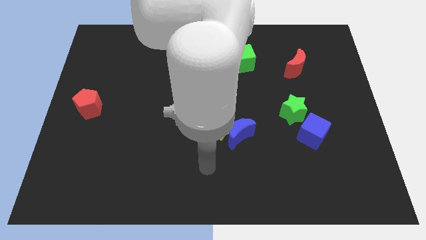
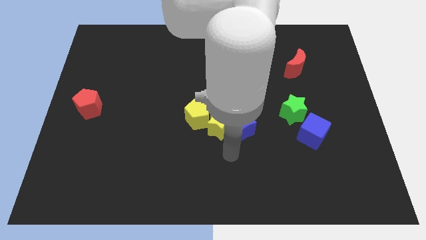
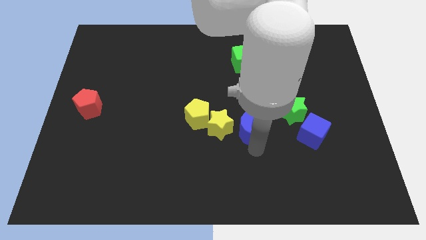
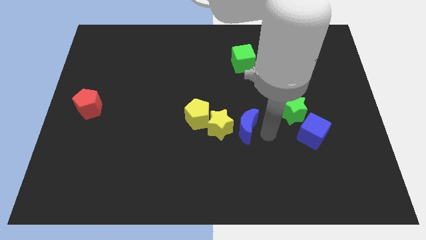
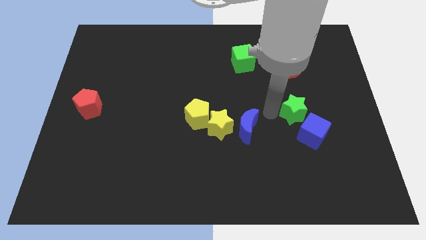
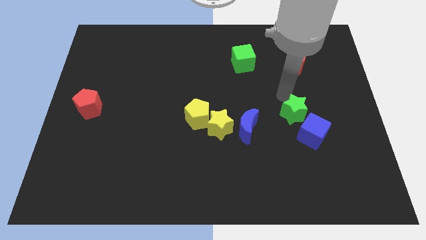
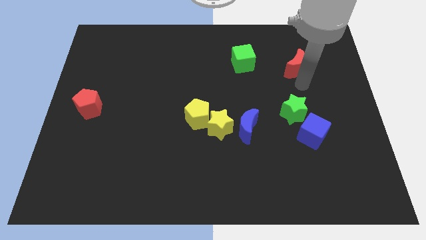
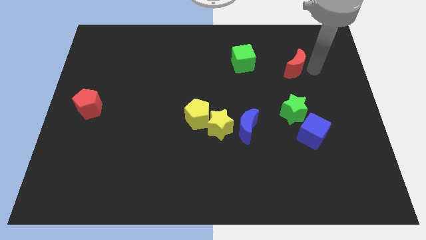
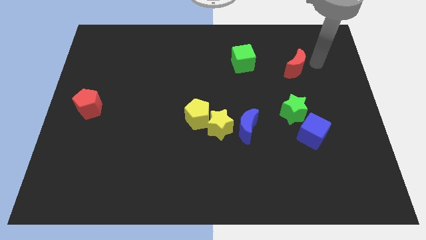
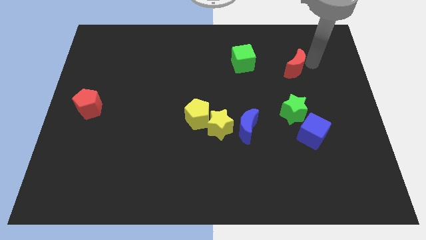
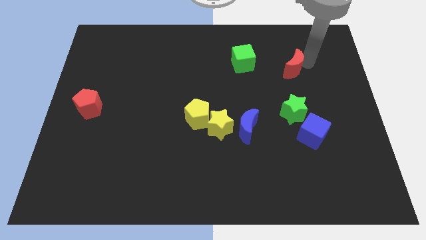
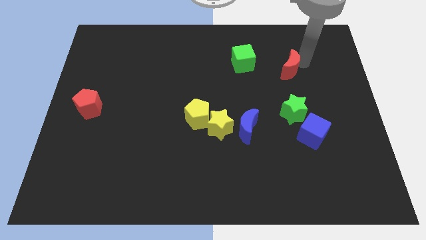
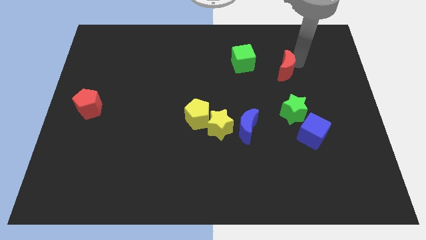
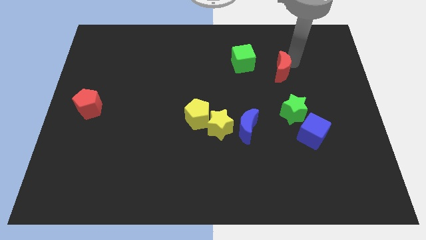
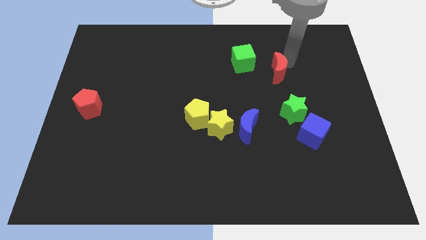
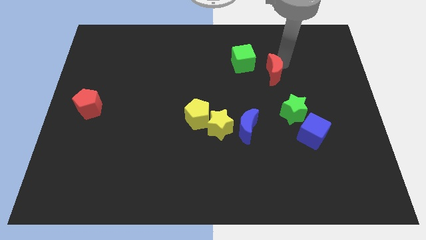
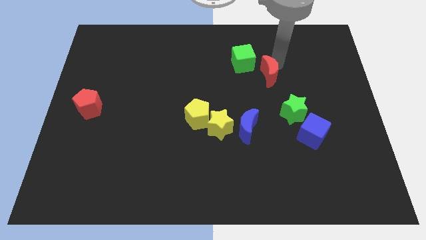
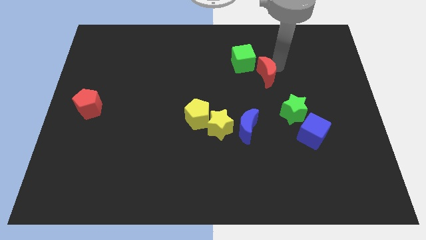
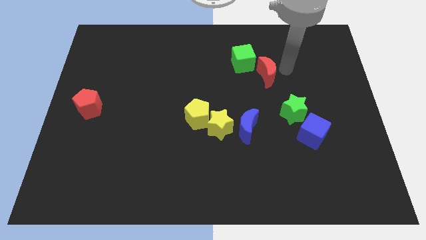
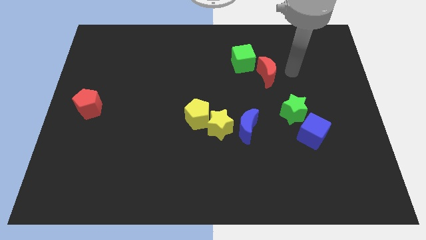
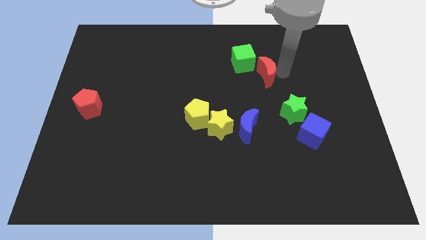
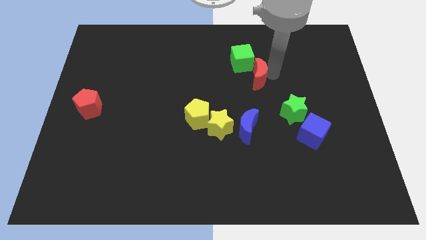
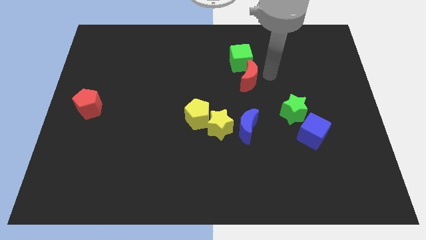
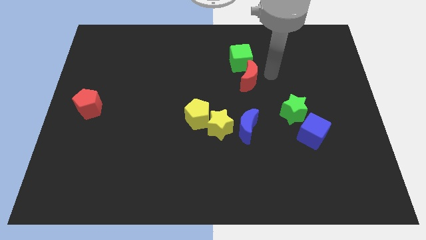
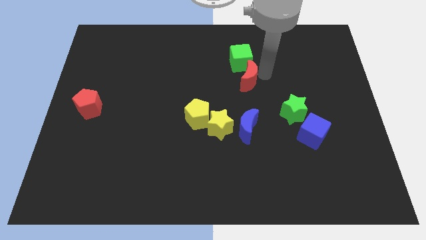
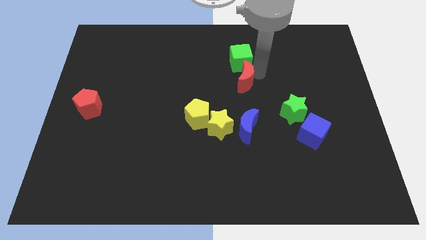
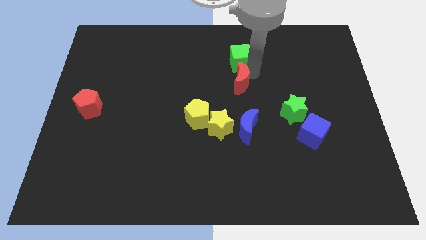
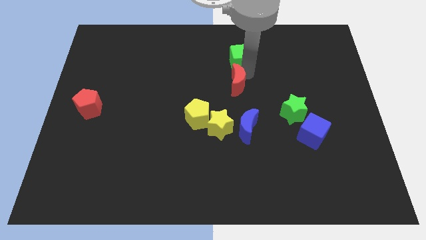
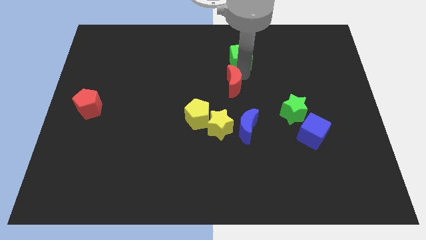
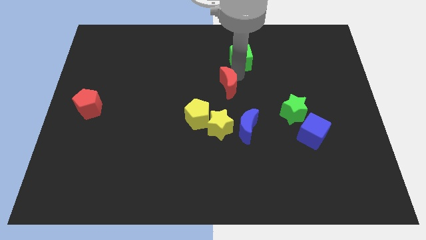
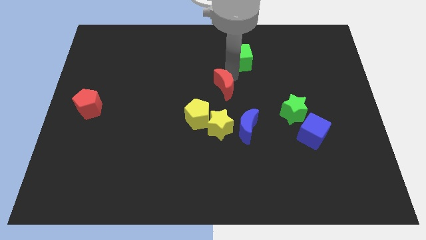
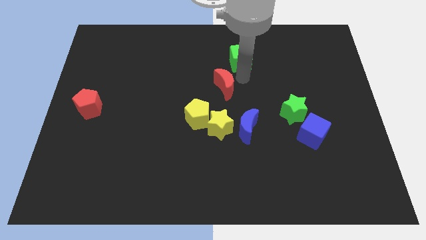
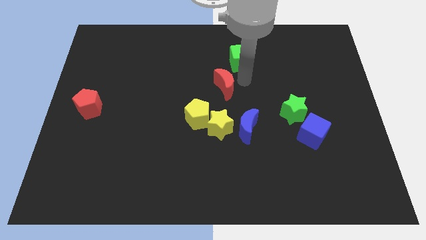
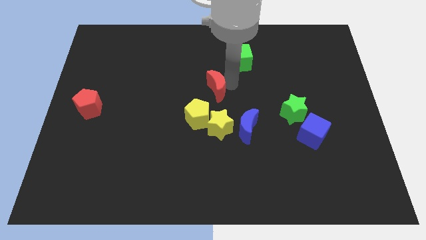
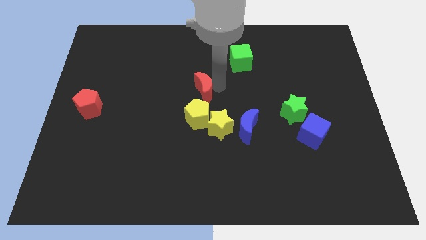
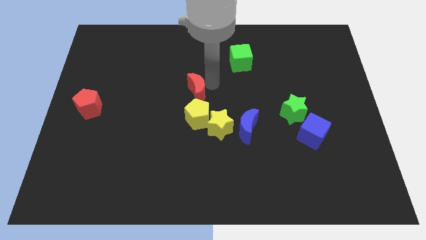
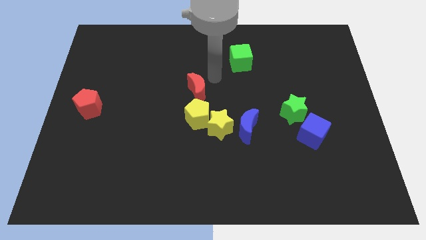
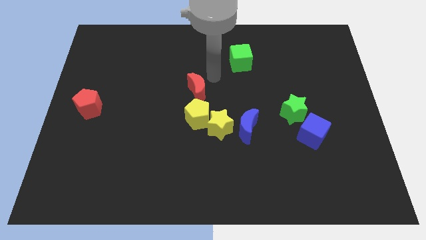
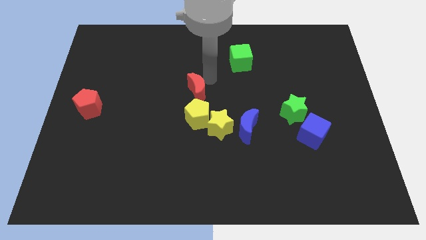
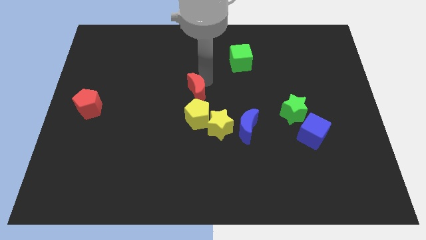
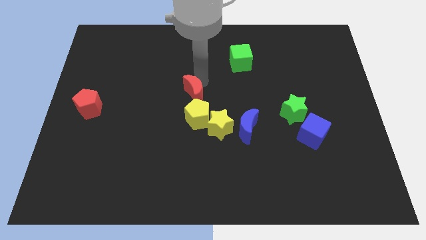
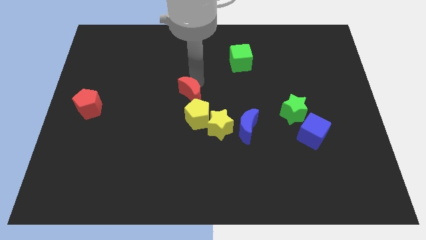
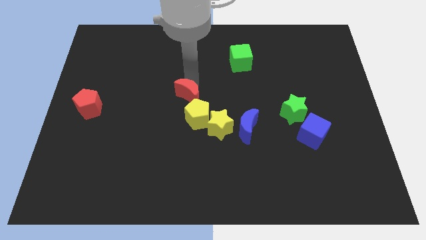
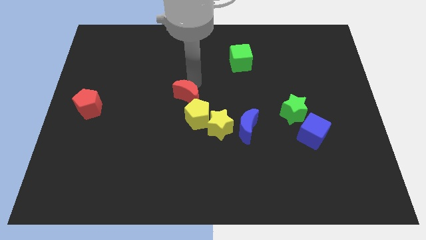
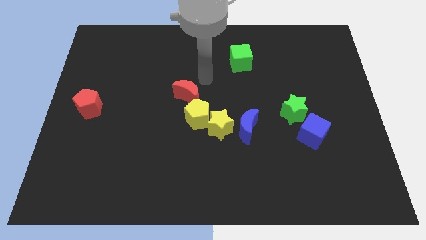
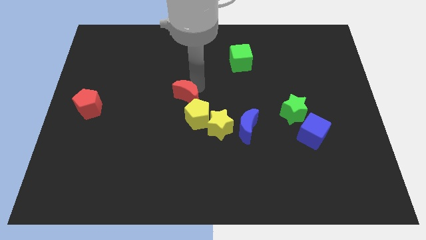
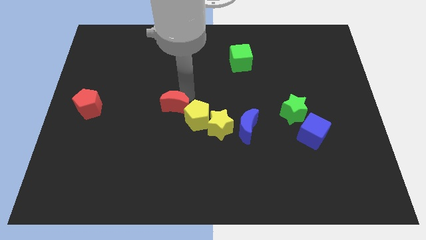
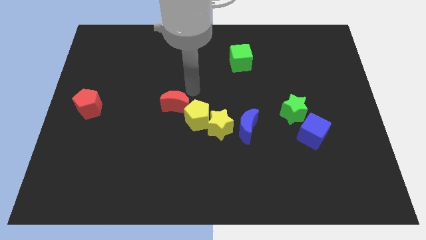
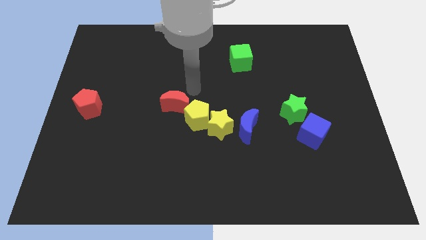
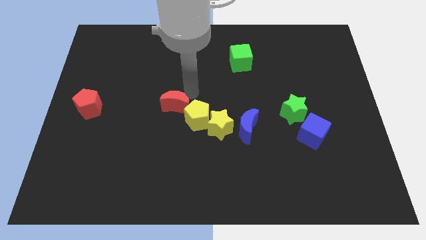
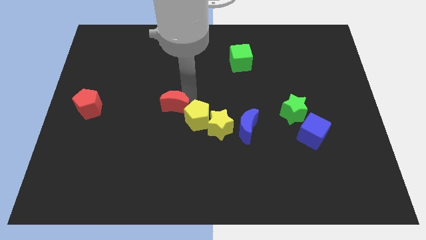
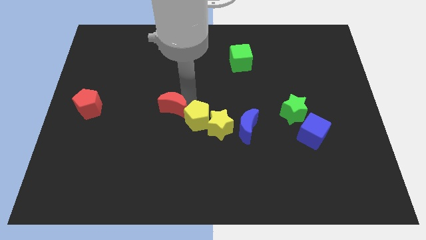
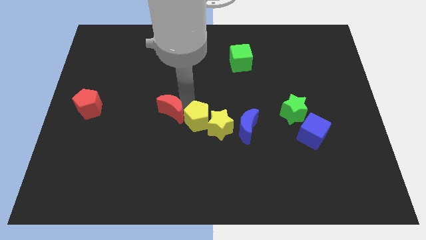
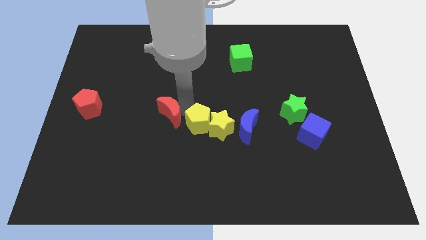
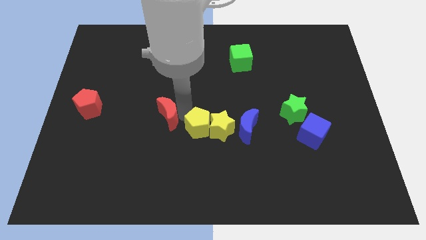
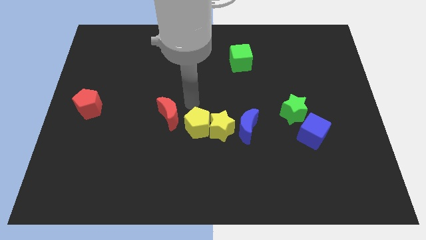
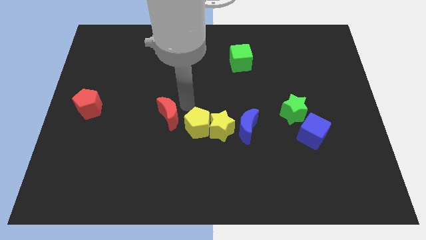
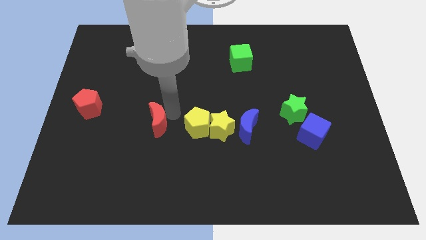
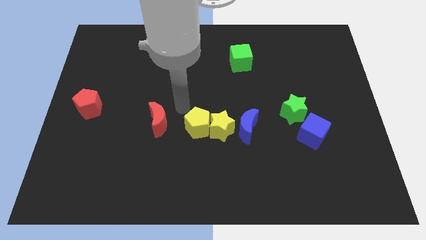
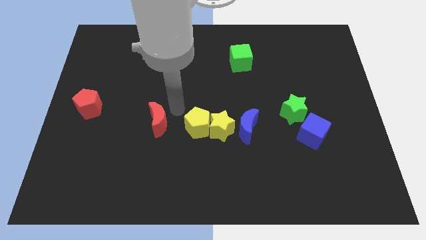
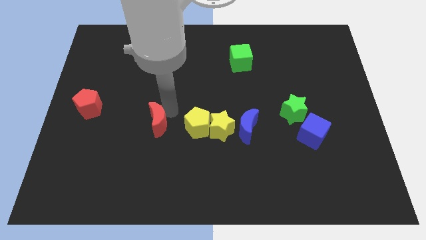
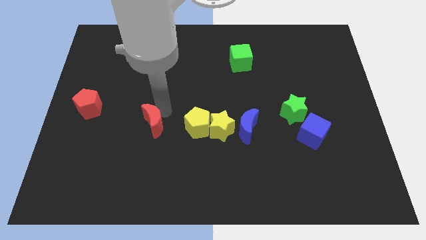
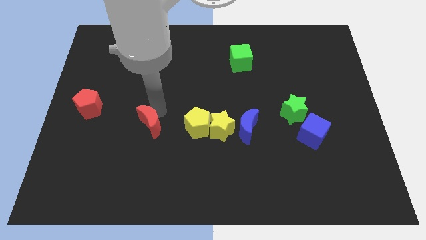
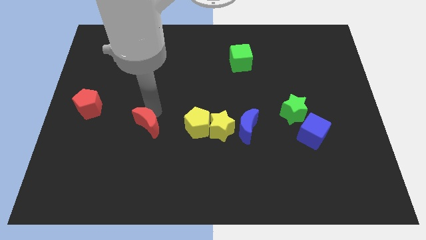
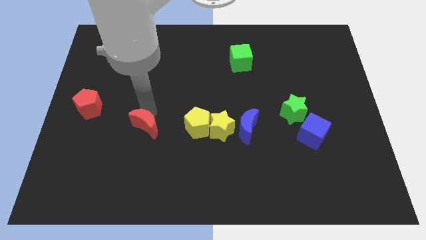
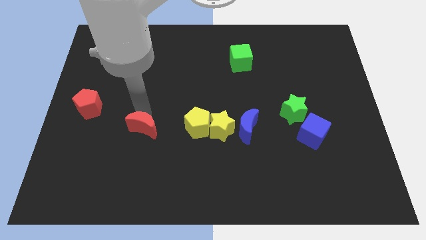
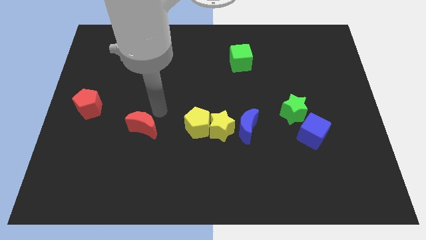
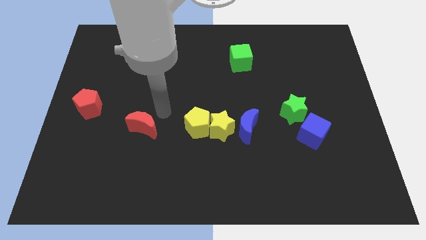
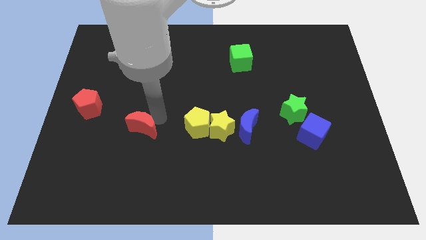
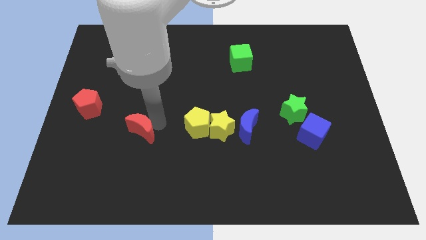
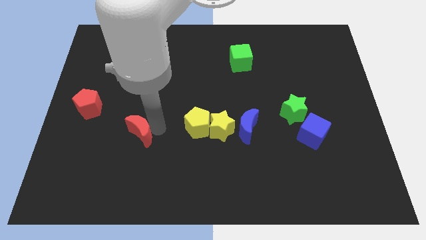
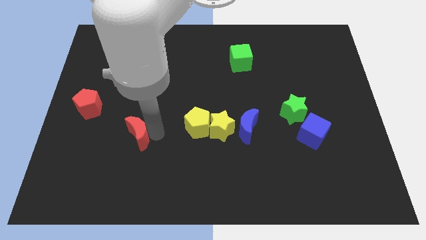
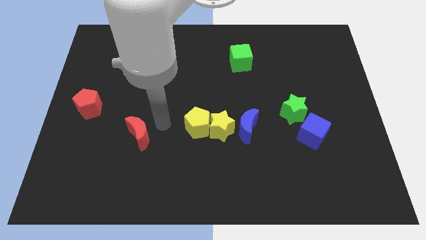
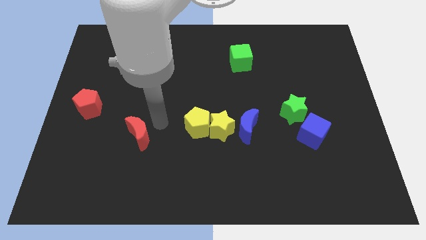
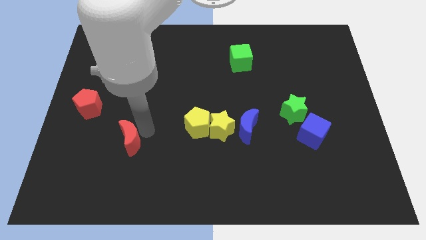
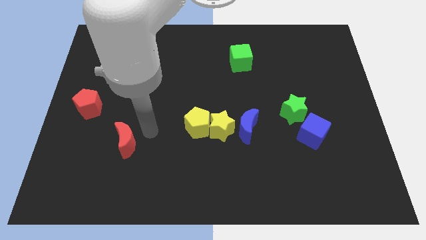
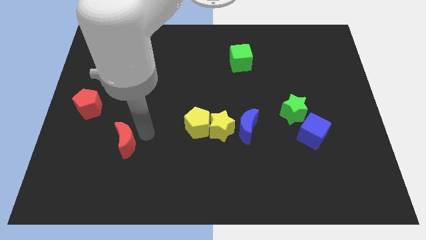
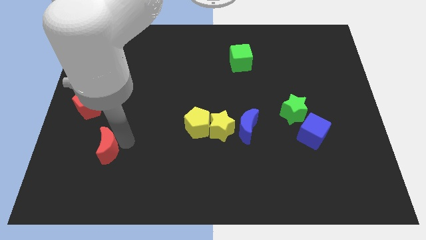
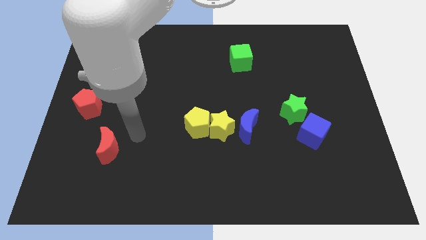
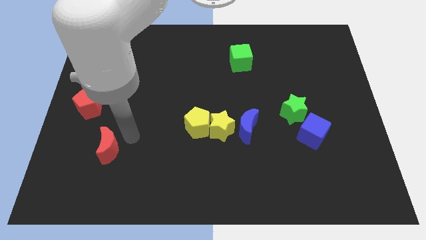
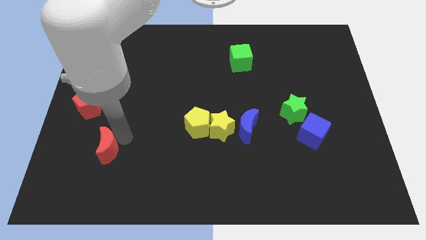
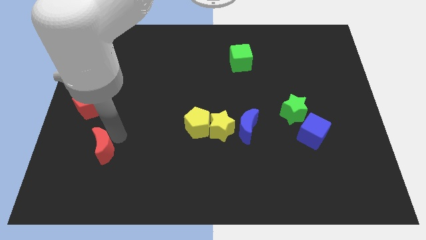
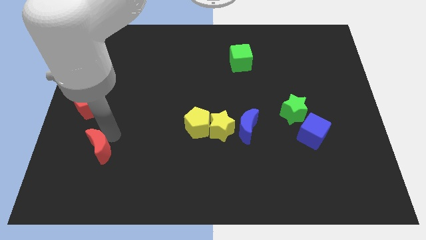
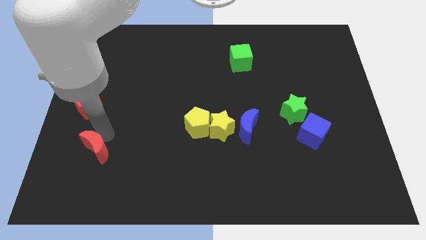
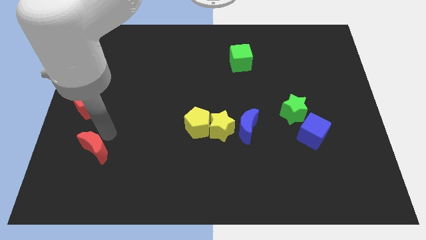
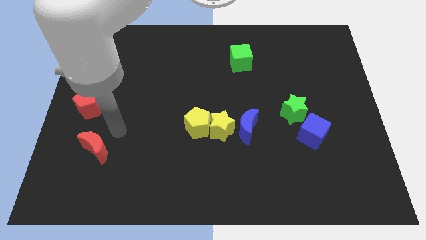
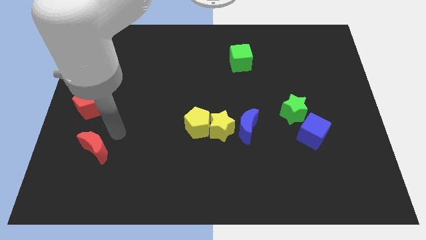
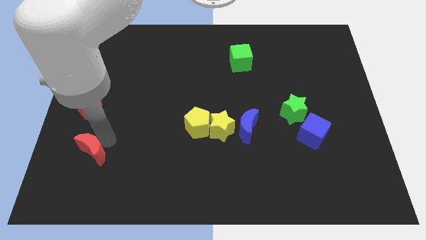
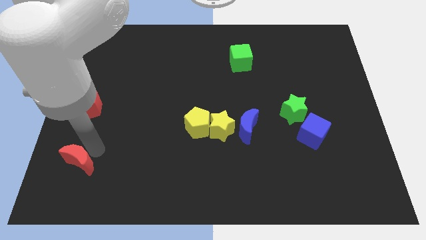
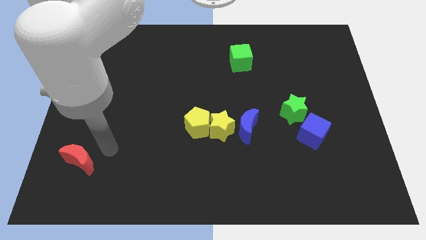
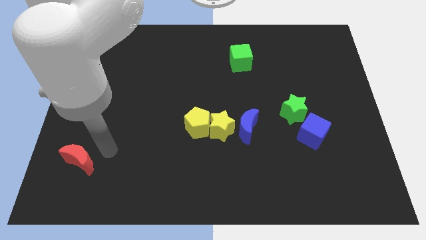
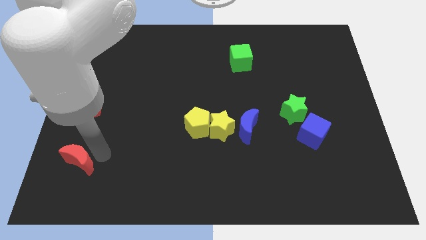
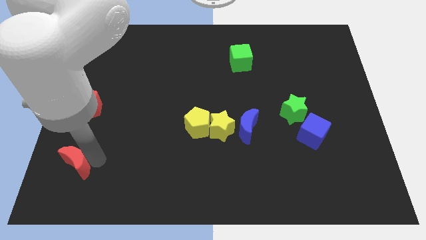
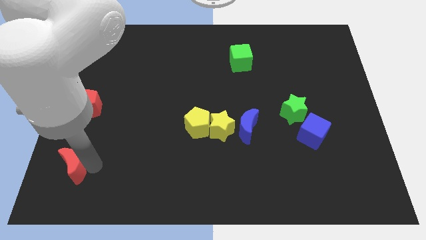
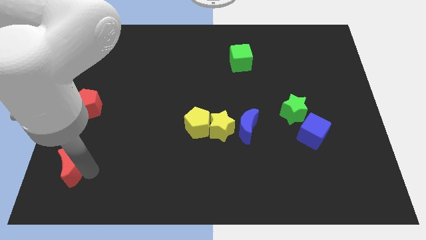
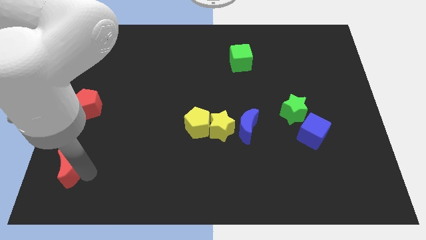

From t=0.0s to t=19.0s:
put the red moon to the bottom left corner
